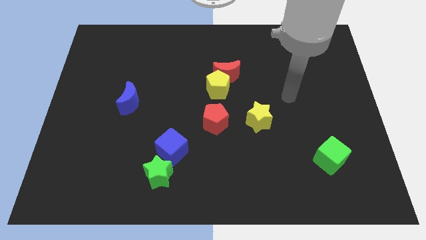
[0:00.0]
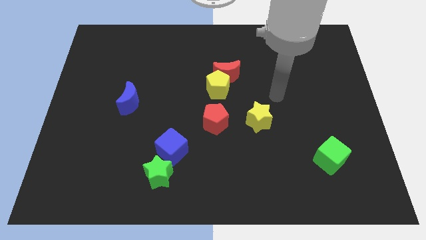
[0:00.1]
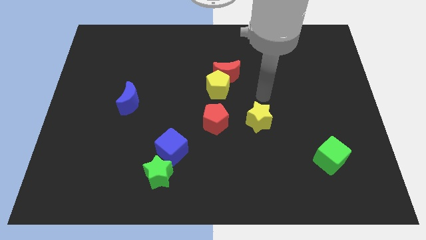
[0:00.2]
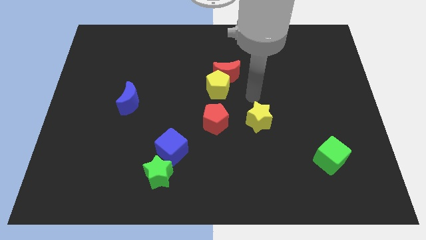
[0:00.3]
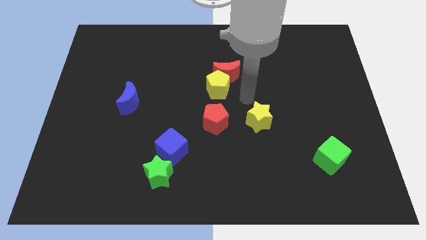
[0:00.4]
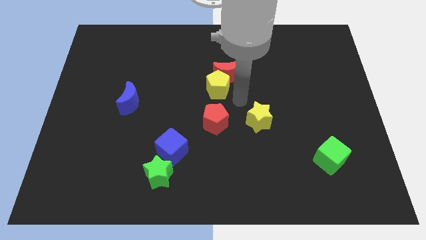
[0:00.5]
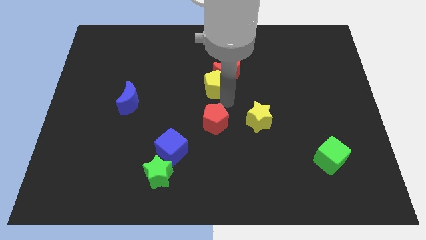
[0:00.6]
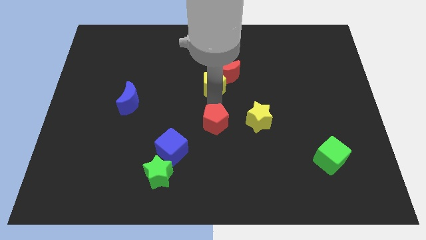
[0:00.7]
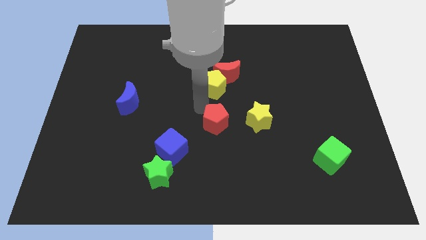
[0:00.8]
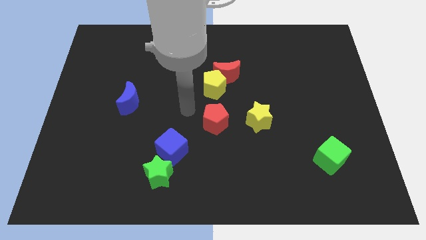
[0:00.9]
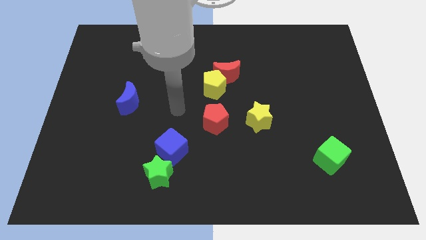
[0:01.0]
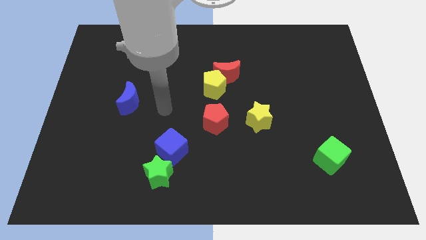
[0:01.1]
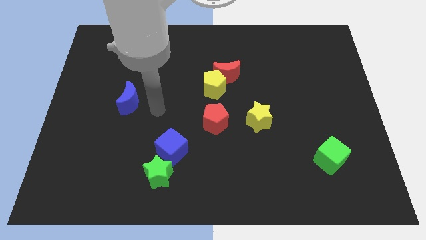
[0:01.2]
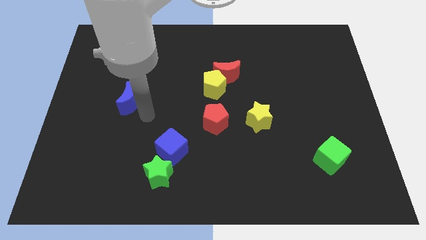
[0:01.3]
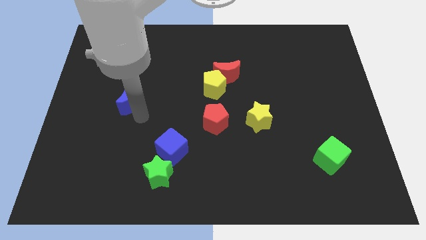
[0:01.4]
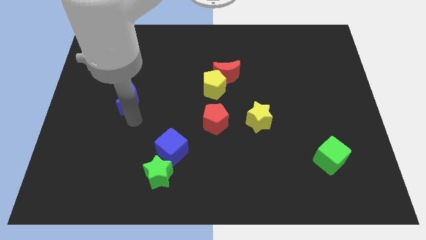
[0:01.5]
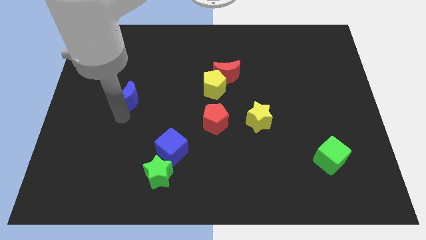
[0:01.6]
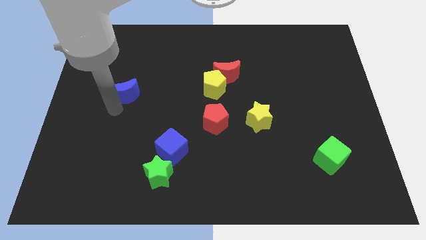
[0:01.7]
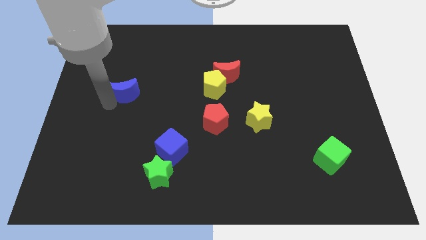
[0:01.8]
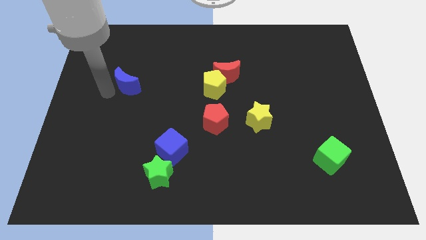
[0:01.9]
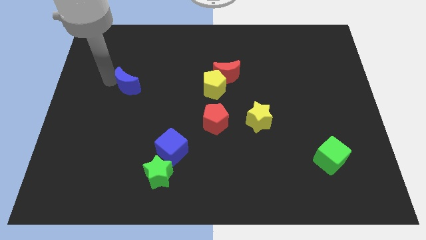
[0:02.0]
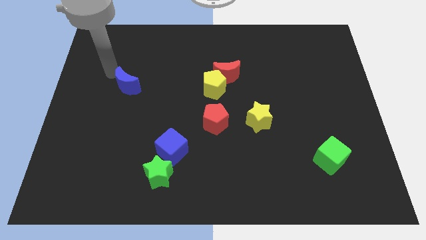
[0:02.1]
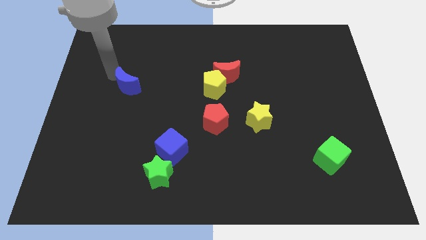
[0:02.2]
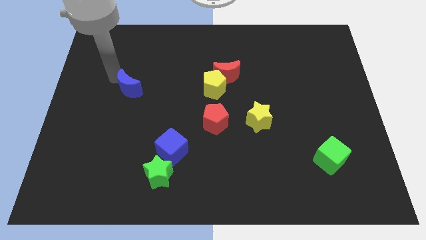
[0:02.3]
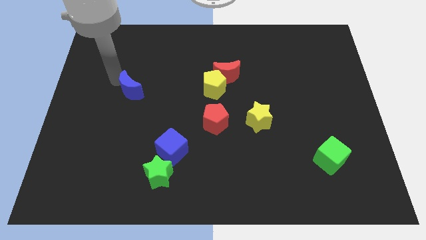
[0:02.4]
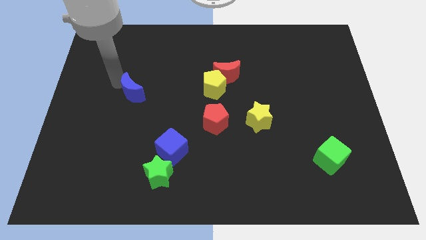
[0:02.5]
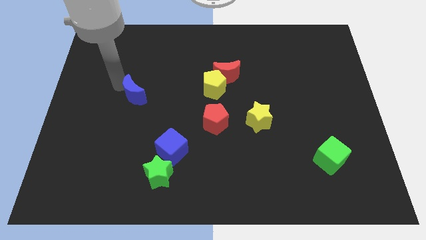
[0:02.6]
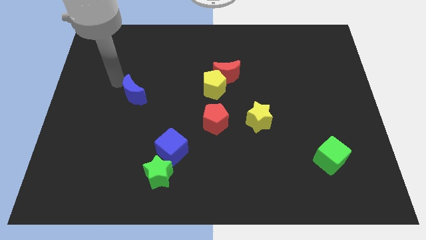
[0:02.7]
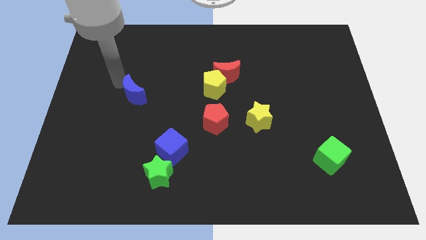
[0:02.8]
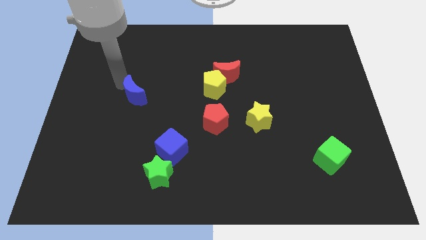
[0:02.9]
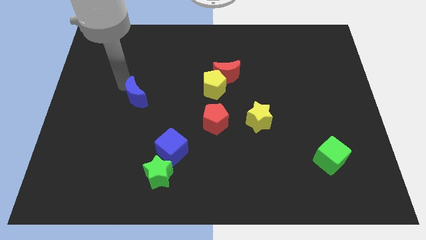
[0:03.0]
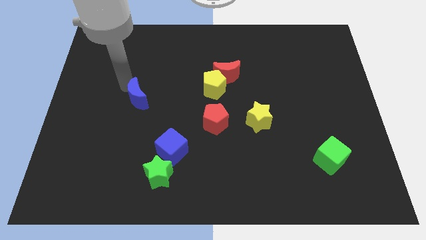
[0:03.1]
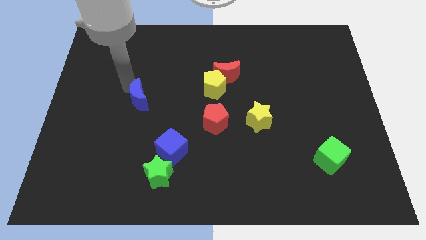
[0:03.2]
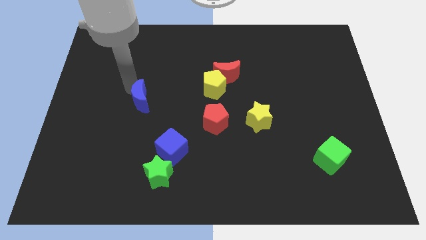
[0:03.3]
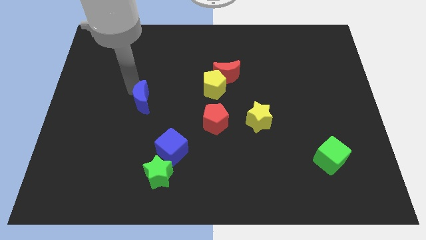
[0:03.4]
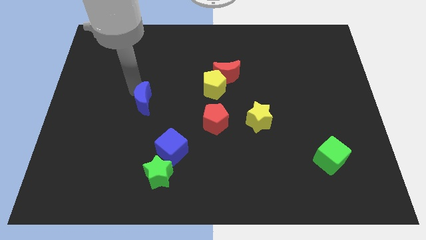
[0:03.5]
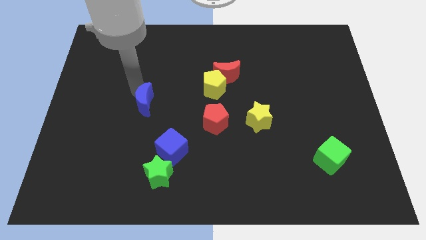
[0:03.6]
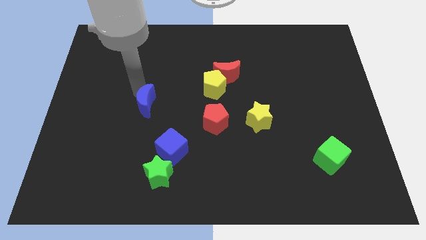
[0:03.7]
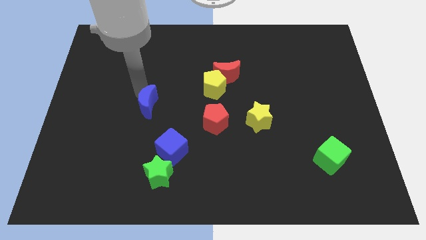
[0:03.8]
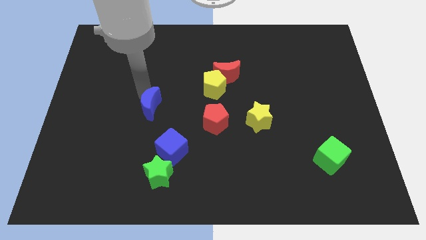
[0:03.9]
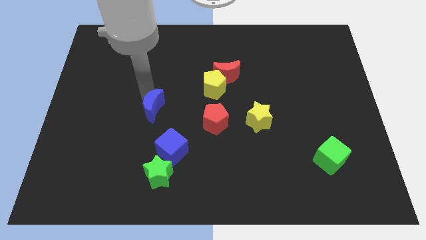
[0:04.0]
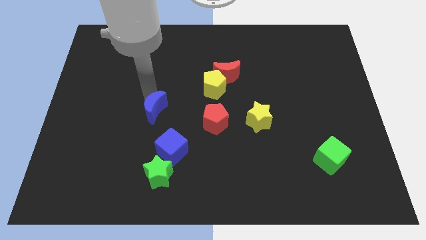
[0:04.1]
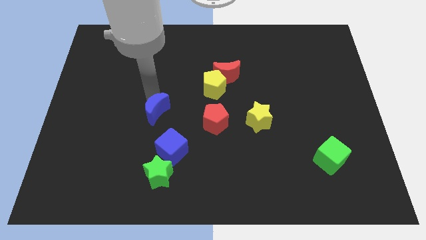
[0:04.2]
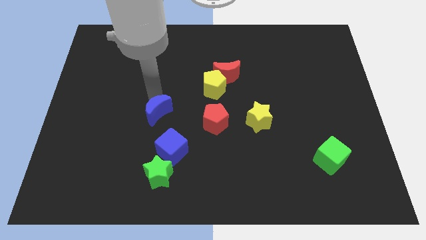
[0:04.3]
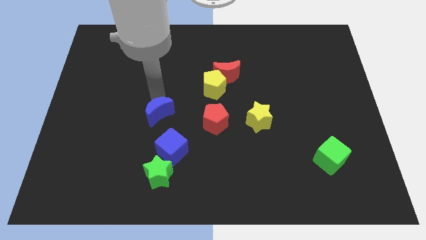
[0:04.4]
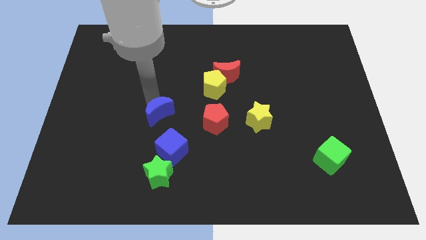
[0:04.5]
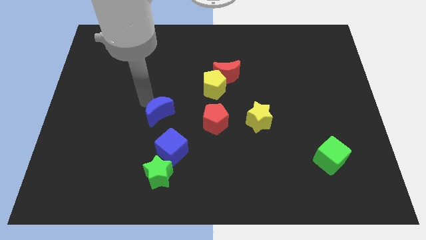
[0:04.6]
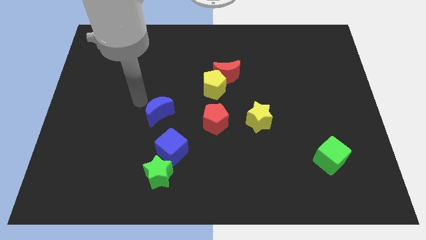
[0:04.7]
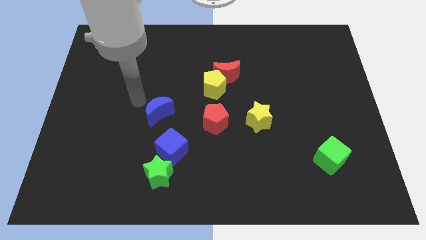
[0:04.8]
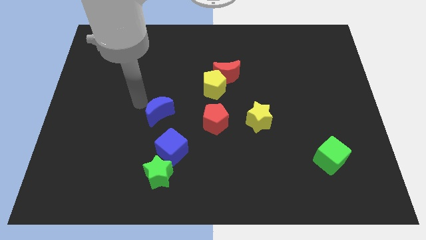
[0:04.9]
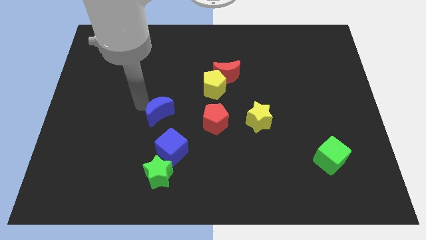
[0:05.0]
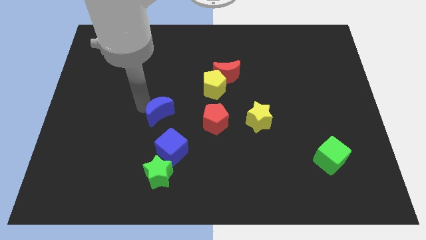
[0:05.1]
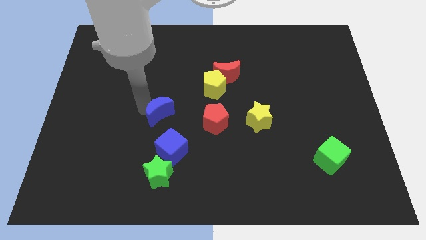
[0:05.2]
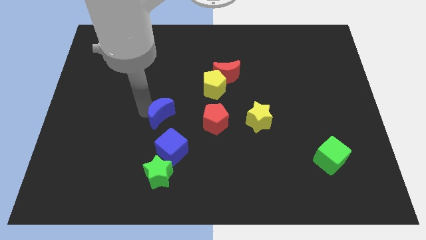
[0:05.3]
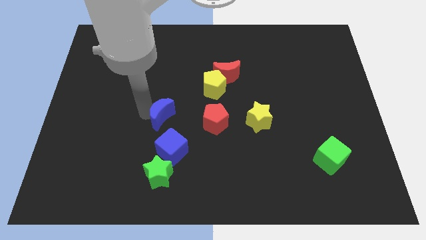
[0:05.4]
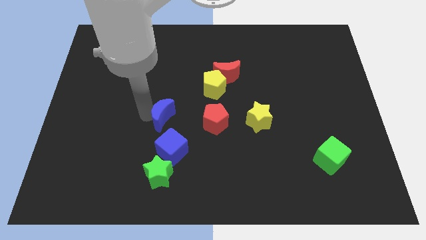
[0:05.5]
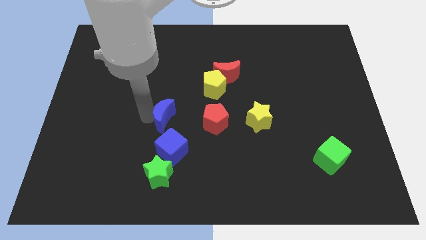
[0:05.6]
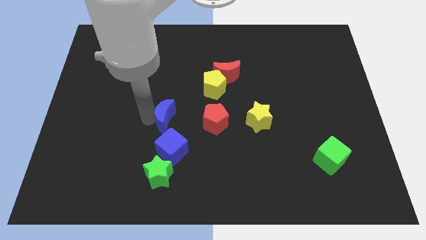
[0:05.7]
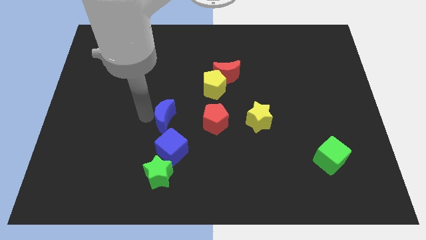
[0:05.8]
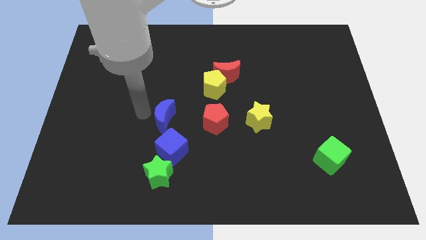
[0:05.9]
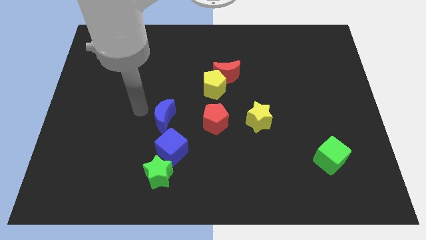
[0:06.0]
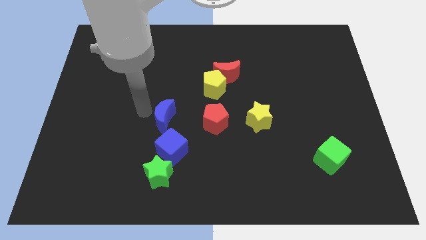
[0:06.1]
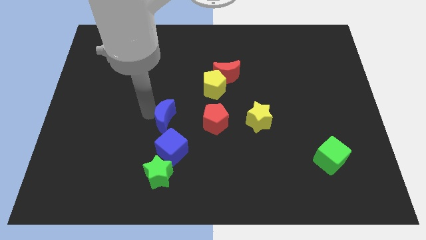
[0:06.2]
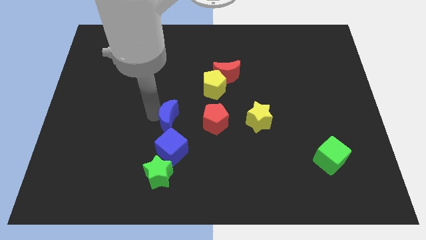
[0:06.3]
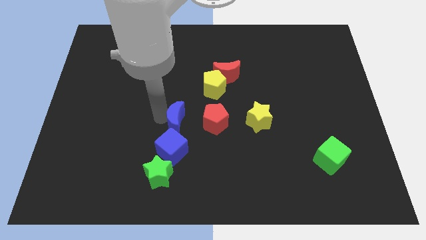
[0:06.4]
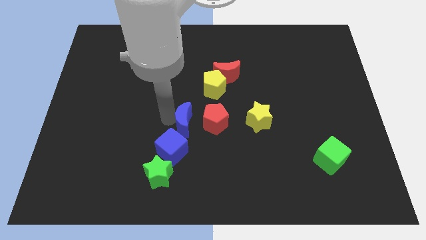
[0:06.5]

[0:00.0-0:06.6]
move the blue moon to the top right side of the blue cube
